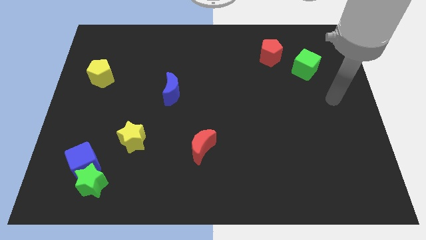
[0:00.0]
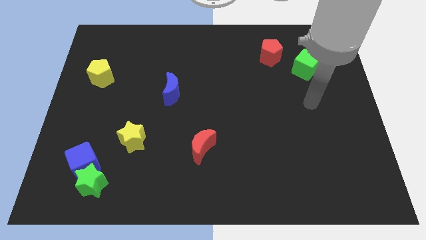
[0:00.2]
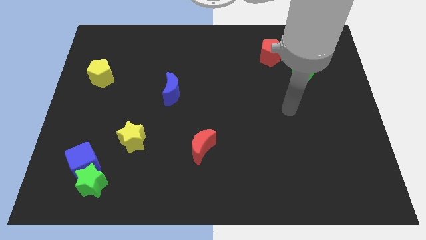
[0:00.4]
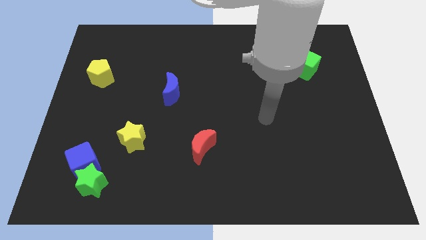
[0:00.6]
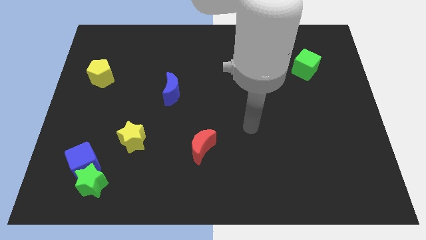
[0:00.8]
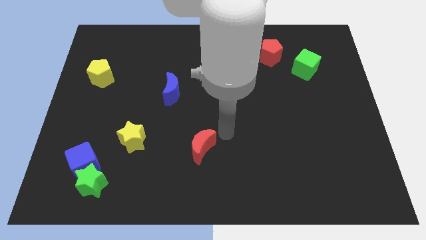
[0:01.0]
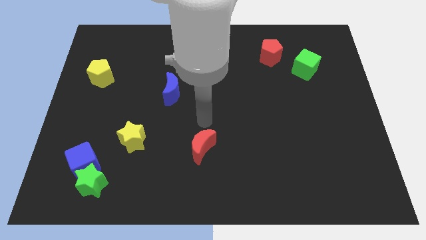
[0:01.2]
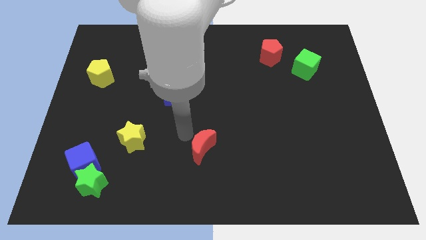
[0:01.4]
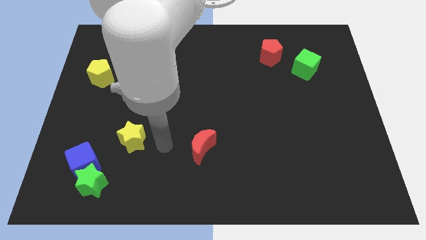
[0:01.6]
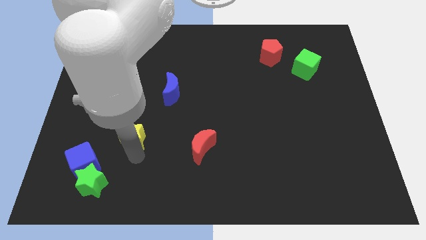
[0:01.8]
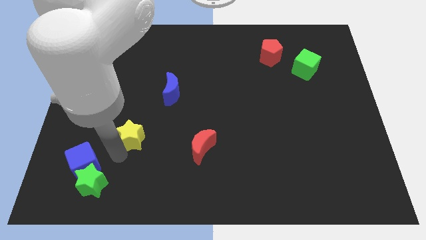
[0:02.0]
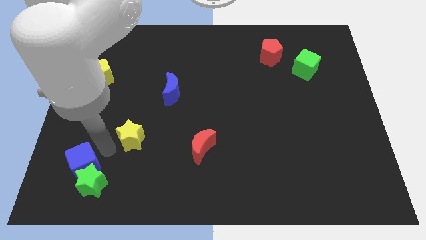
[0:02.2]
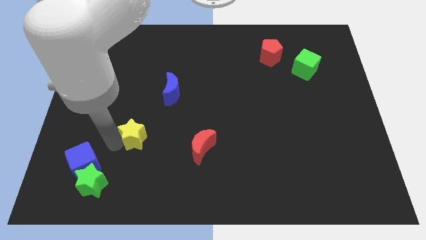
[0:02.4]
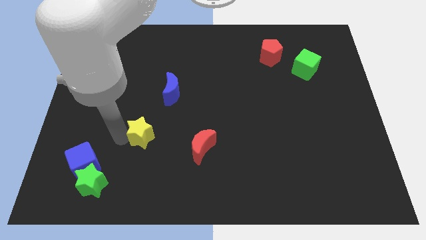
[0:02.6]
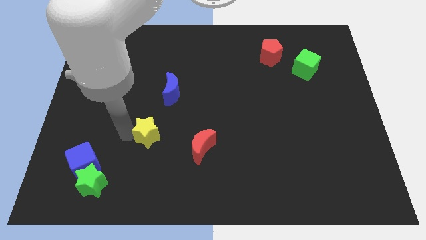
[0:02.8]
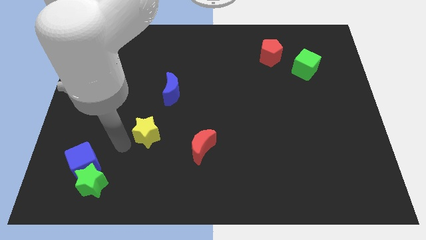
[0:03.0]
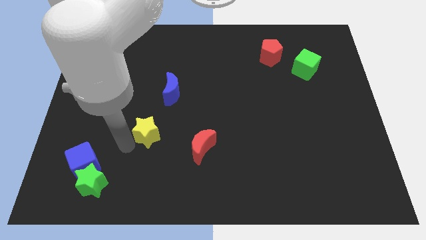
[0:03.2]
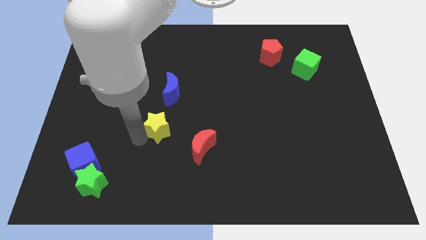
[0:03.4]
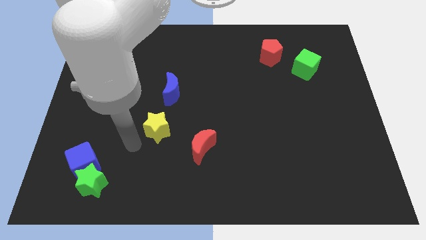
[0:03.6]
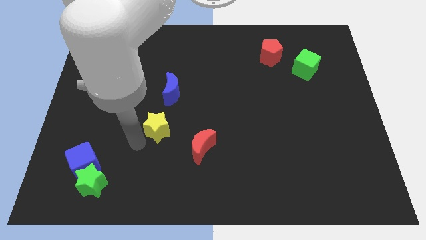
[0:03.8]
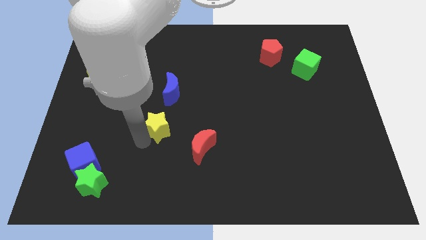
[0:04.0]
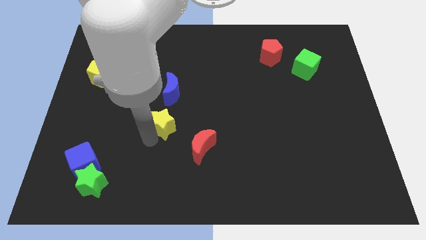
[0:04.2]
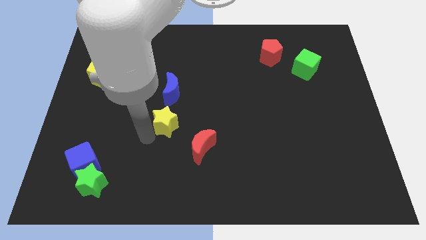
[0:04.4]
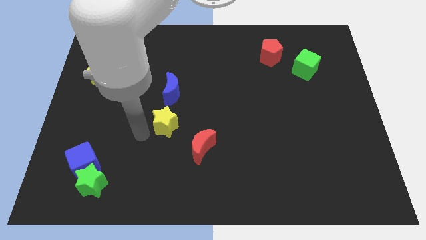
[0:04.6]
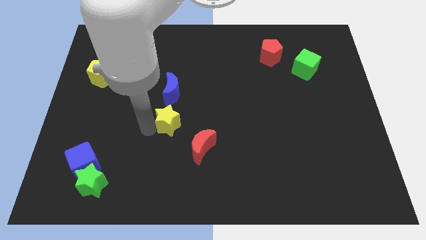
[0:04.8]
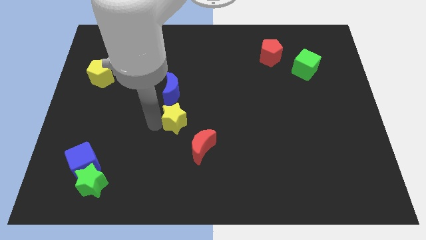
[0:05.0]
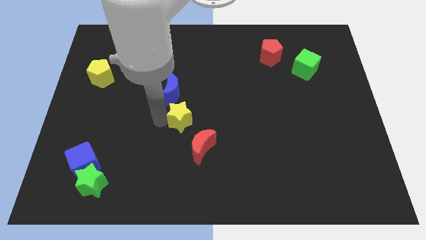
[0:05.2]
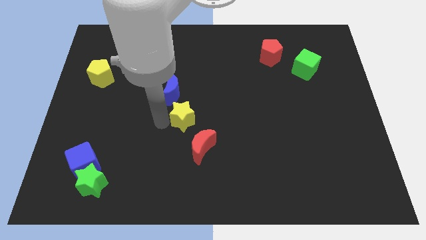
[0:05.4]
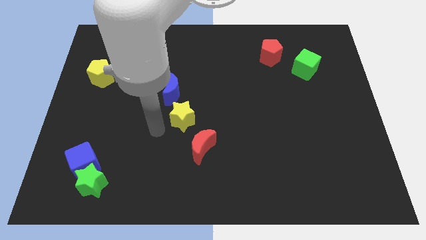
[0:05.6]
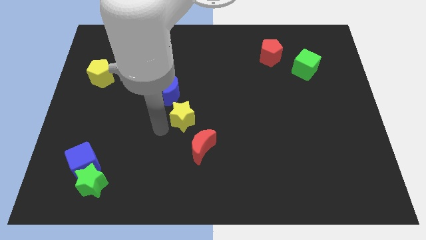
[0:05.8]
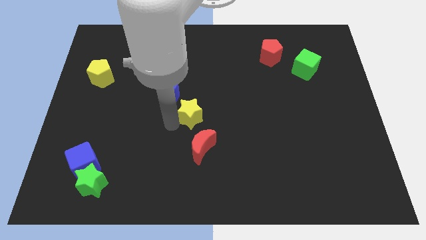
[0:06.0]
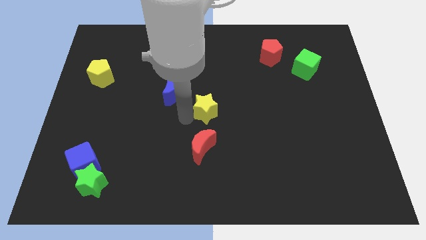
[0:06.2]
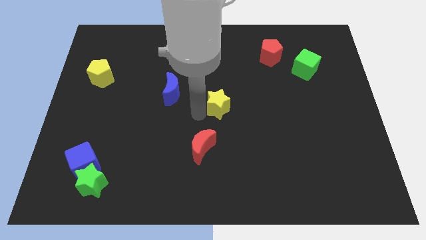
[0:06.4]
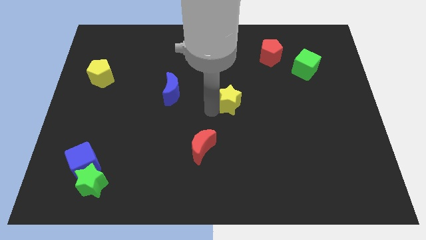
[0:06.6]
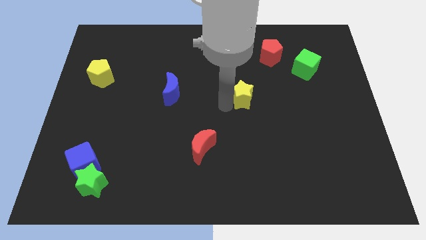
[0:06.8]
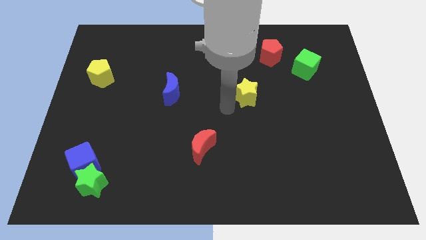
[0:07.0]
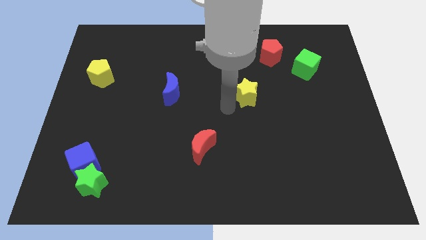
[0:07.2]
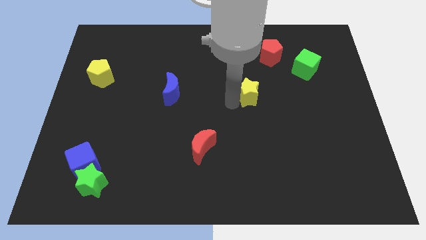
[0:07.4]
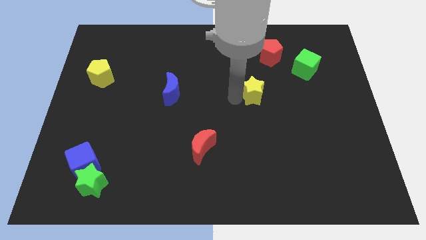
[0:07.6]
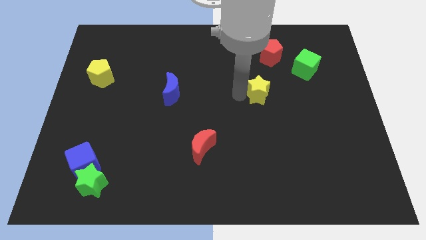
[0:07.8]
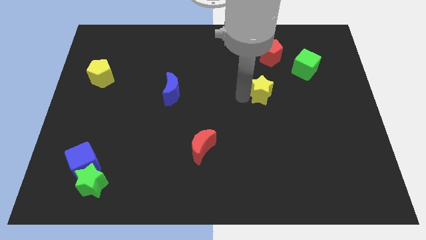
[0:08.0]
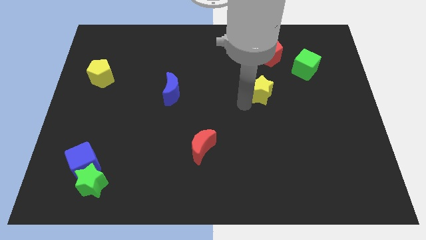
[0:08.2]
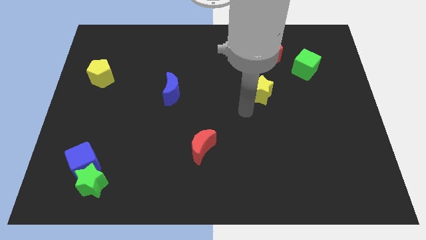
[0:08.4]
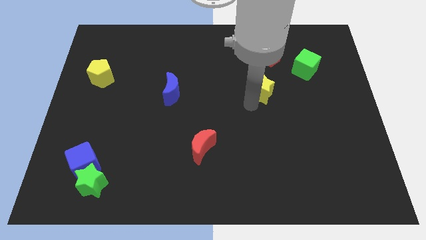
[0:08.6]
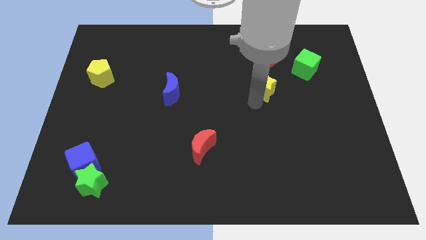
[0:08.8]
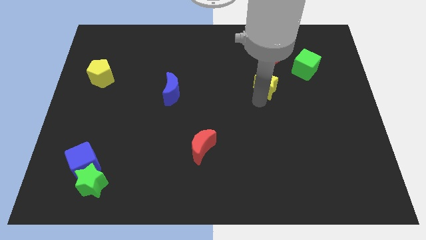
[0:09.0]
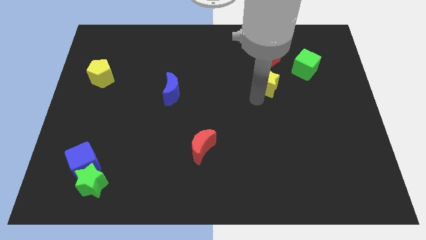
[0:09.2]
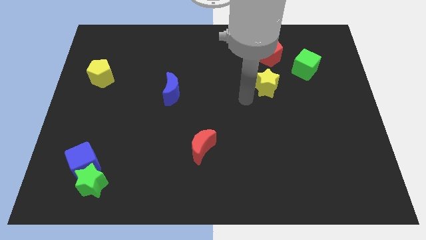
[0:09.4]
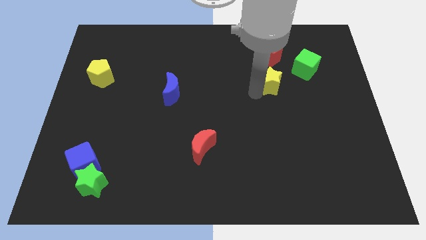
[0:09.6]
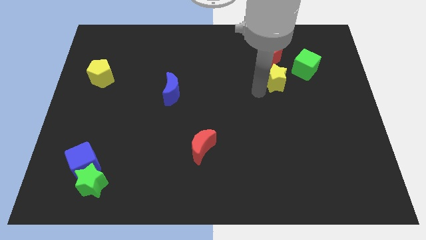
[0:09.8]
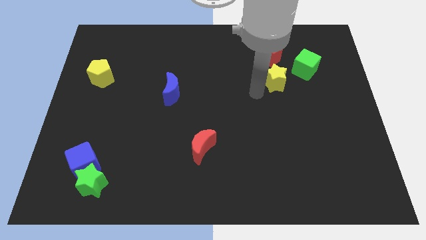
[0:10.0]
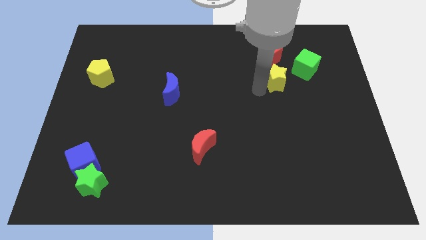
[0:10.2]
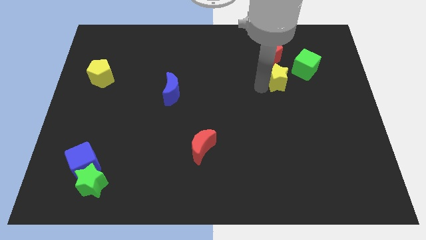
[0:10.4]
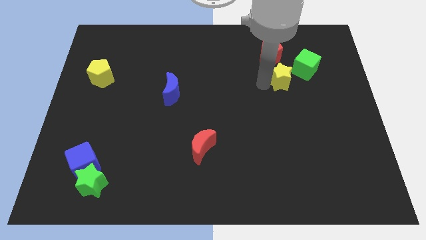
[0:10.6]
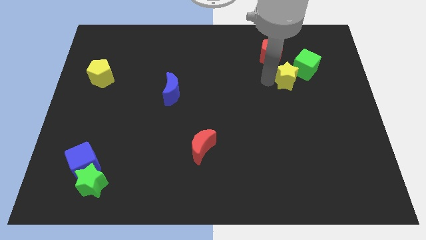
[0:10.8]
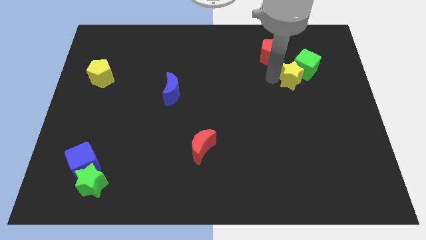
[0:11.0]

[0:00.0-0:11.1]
slide the yellow star next to the green cube

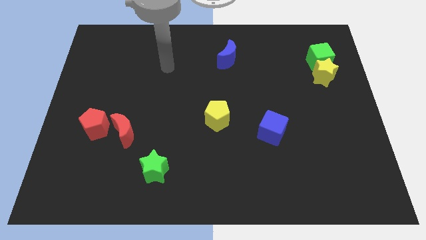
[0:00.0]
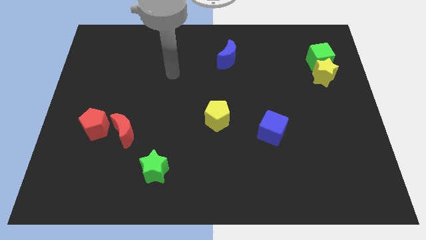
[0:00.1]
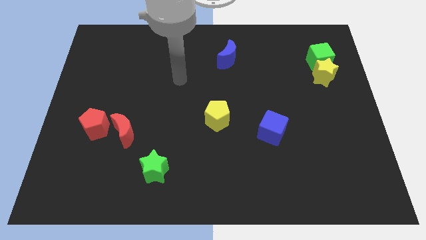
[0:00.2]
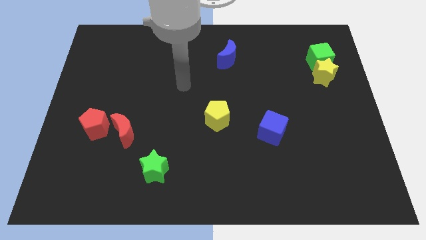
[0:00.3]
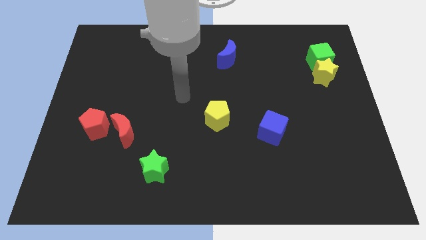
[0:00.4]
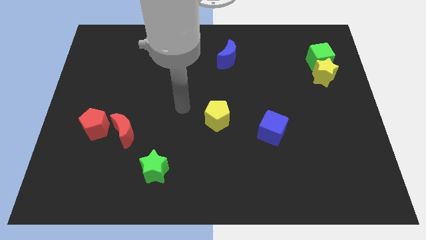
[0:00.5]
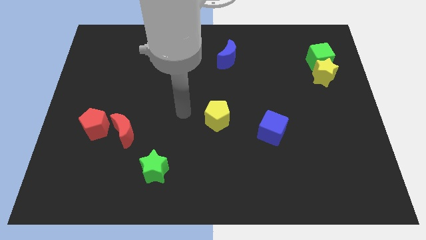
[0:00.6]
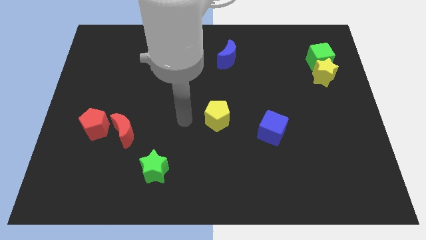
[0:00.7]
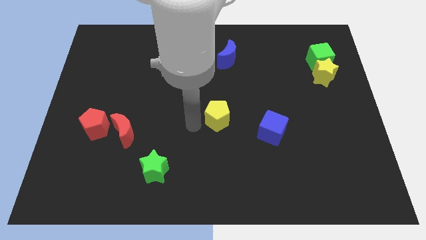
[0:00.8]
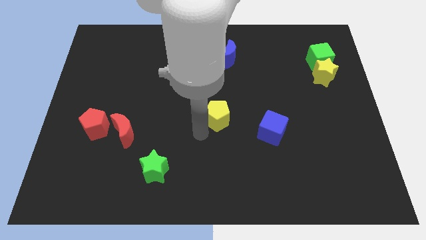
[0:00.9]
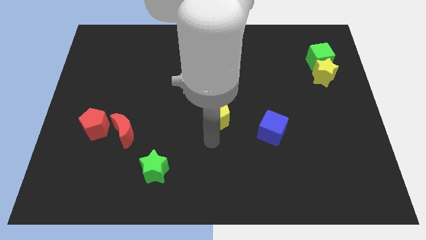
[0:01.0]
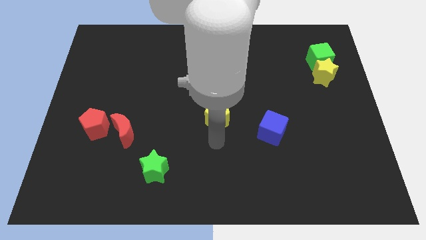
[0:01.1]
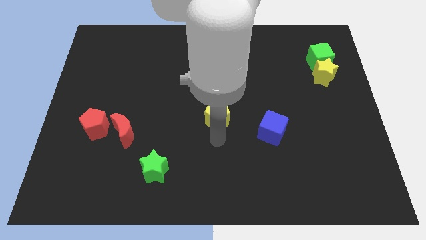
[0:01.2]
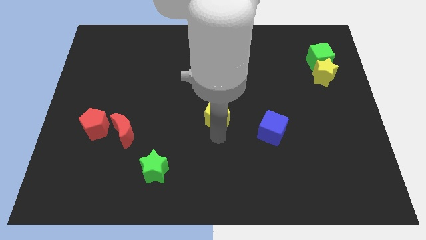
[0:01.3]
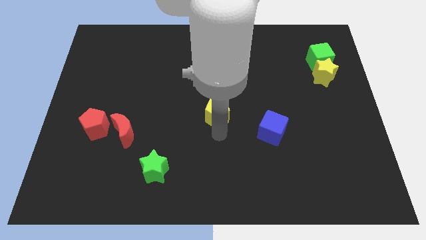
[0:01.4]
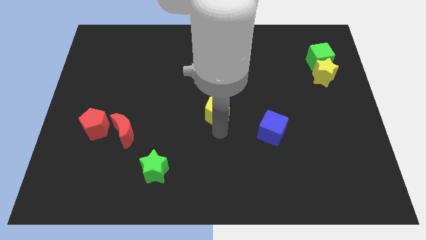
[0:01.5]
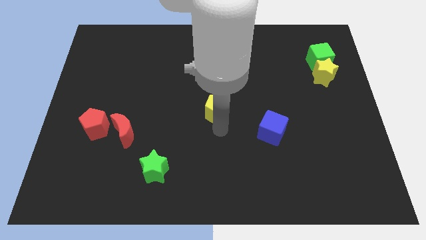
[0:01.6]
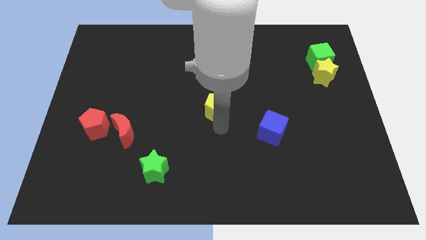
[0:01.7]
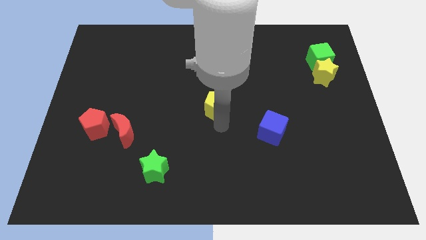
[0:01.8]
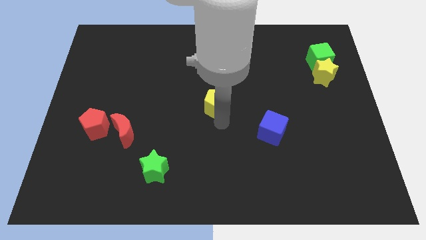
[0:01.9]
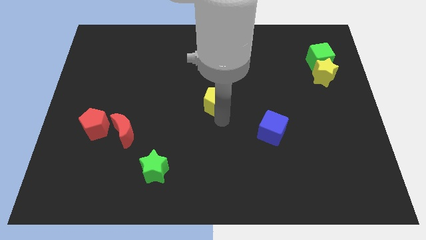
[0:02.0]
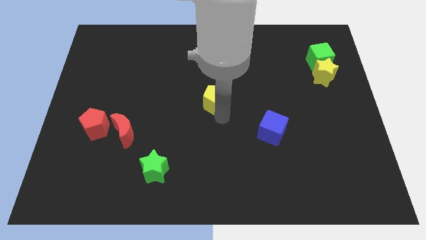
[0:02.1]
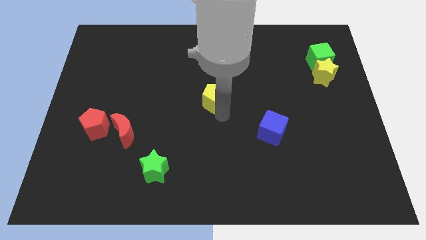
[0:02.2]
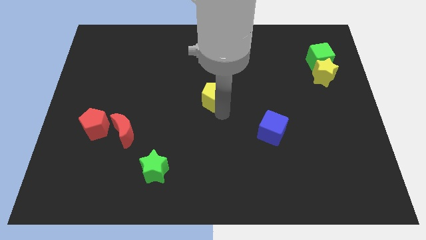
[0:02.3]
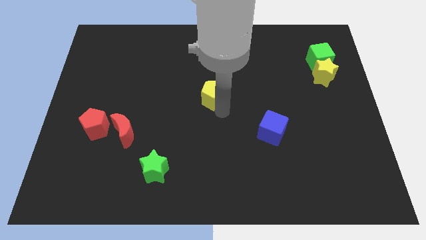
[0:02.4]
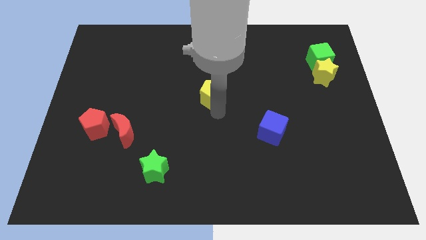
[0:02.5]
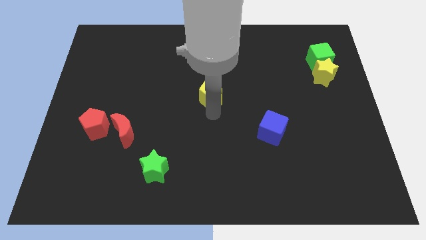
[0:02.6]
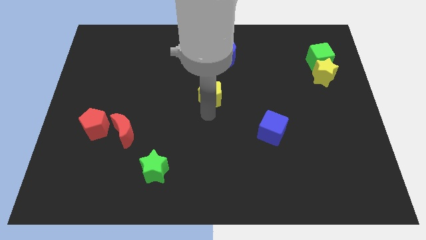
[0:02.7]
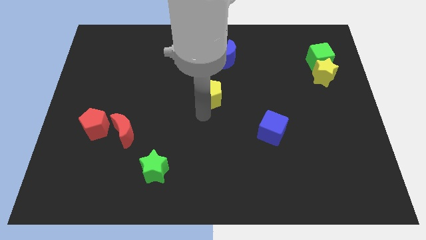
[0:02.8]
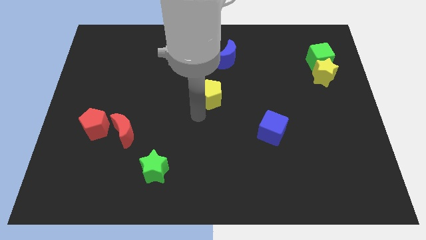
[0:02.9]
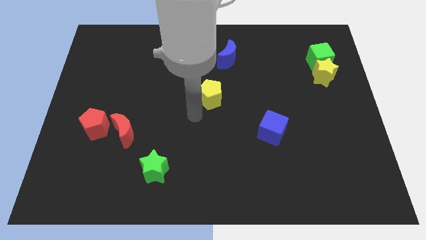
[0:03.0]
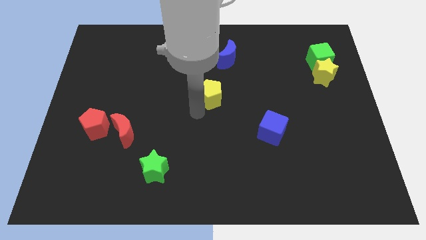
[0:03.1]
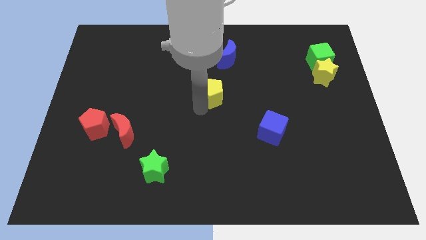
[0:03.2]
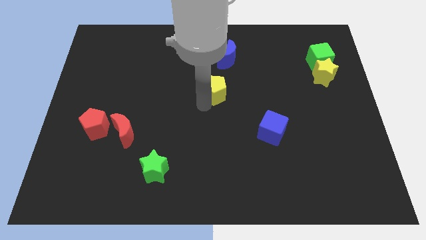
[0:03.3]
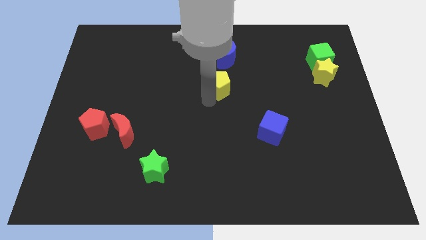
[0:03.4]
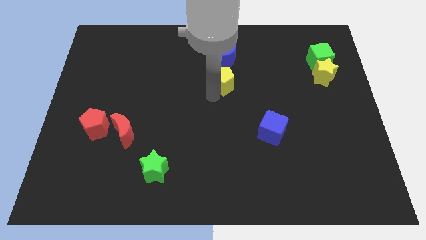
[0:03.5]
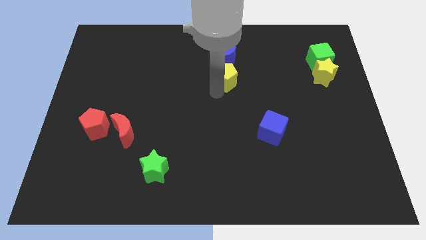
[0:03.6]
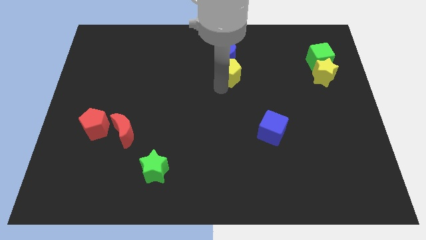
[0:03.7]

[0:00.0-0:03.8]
slide the yellow pentagon towards the blue moon
